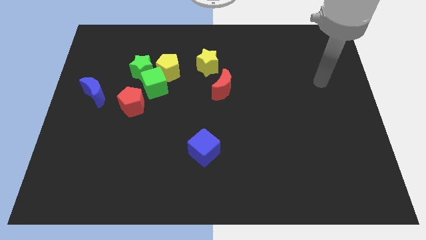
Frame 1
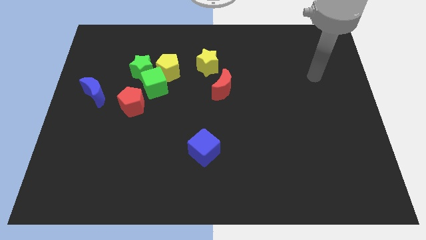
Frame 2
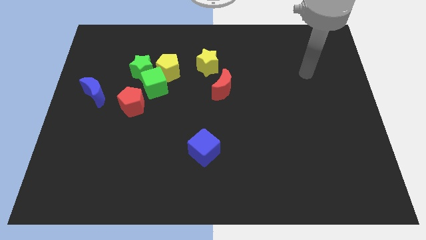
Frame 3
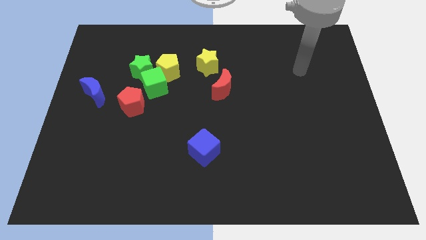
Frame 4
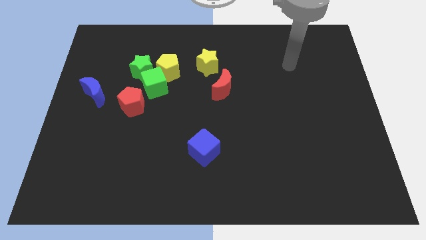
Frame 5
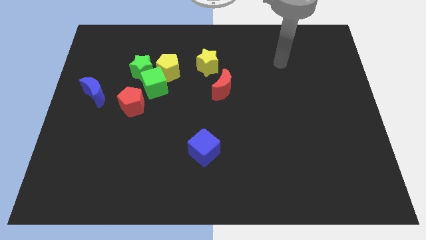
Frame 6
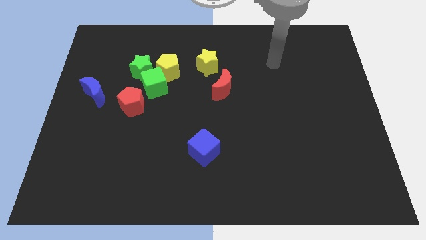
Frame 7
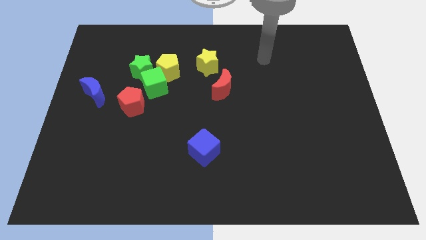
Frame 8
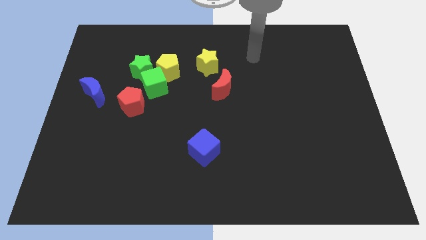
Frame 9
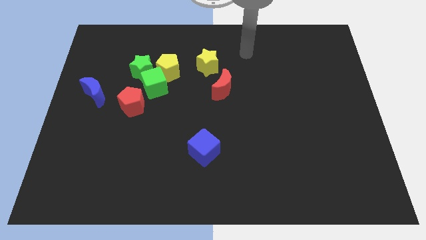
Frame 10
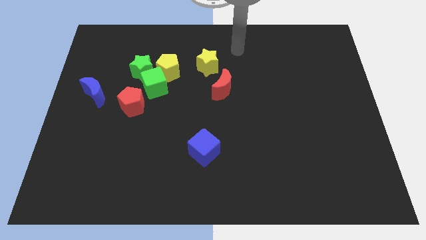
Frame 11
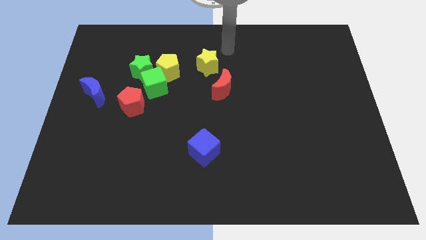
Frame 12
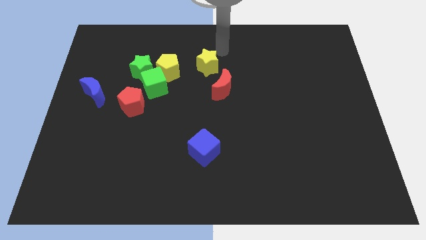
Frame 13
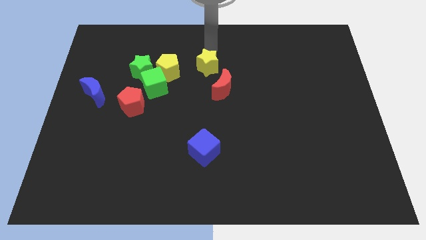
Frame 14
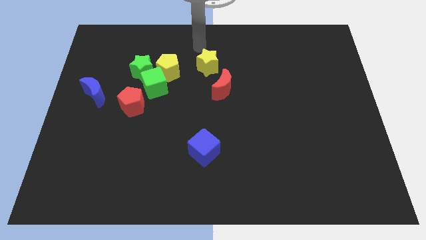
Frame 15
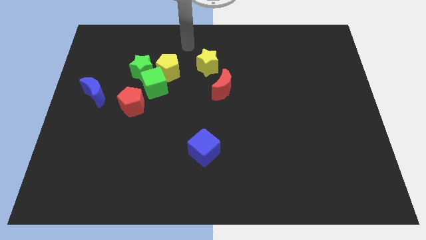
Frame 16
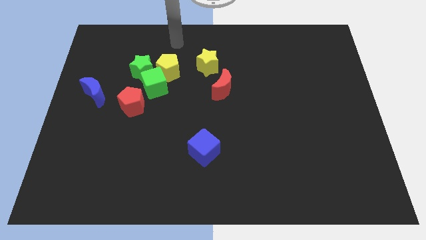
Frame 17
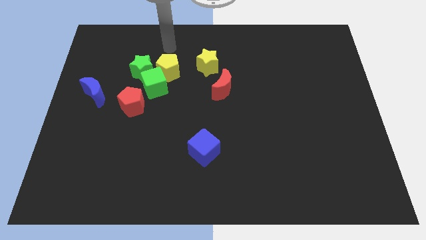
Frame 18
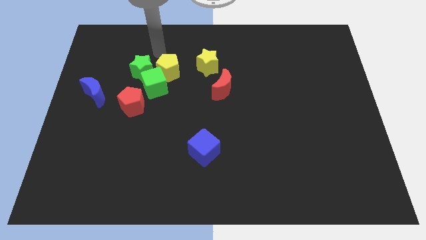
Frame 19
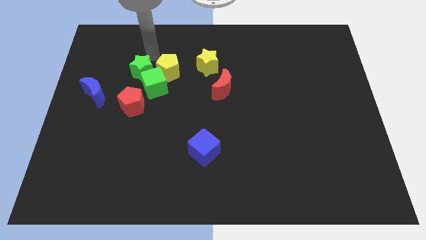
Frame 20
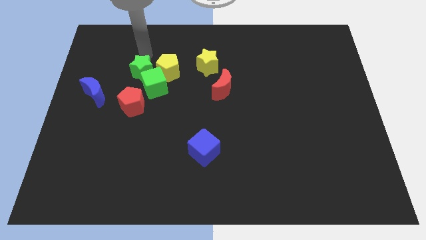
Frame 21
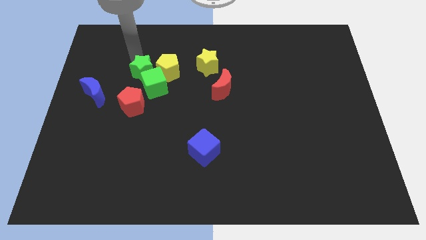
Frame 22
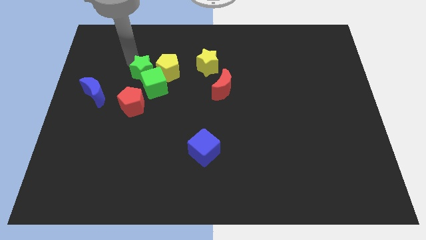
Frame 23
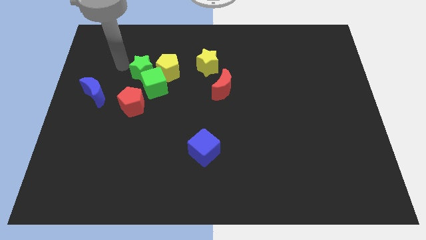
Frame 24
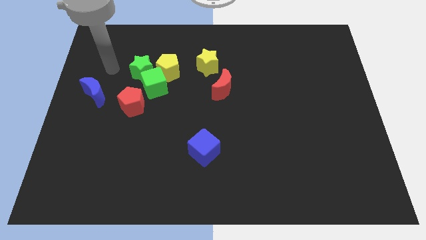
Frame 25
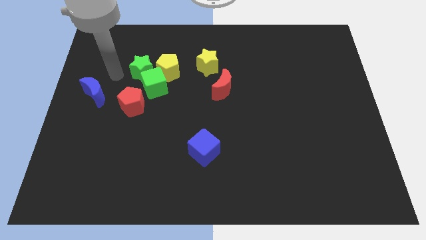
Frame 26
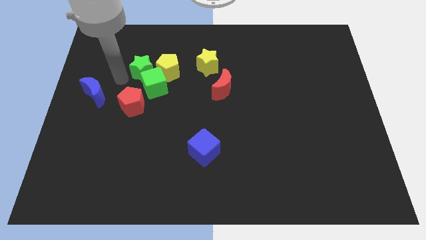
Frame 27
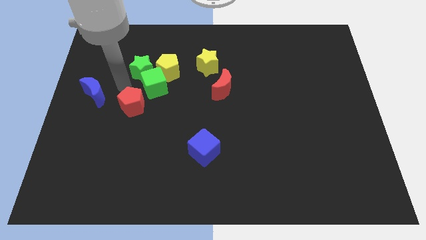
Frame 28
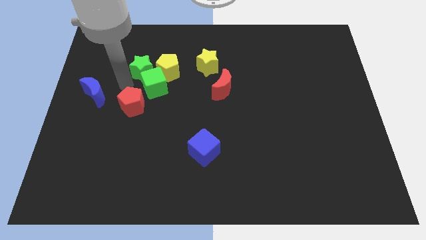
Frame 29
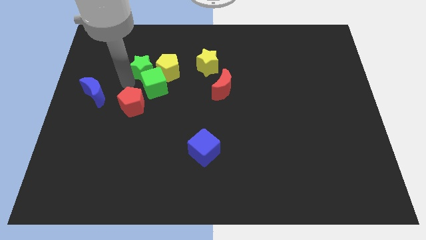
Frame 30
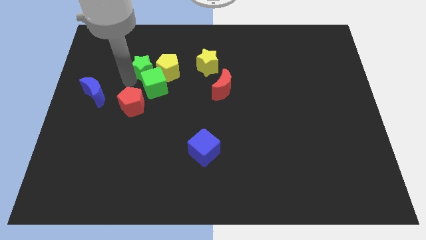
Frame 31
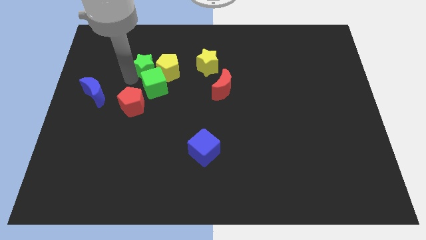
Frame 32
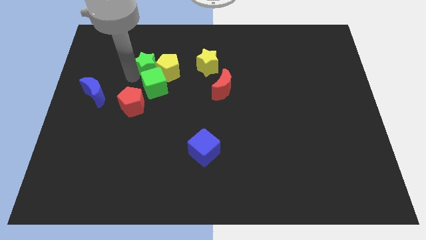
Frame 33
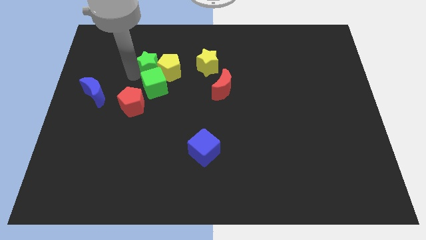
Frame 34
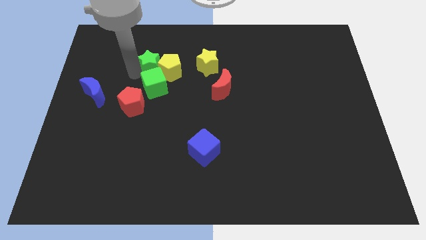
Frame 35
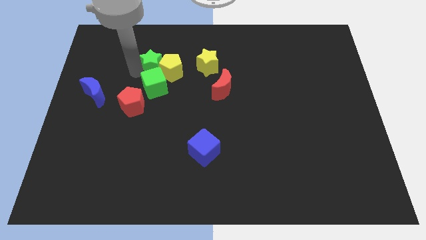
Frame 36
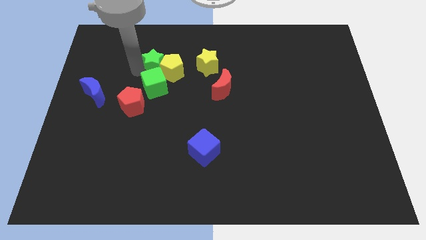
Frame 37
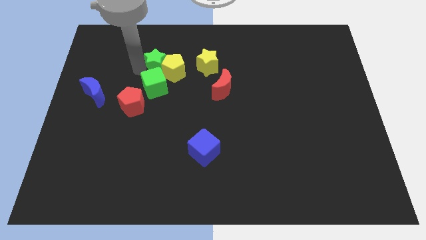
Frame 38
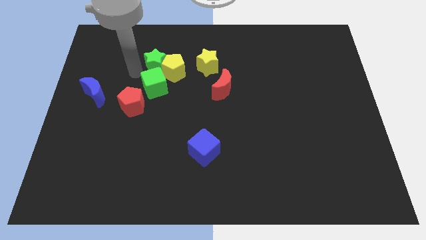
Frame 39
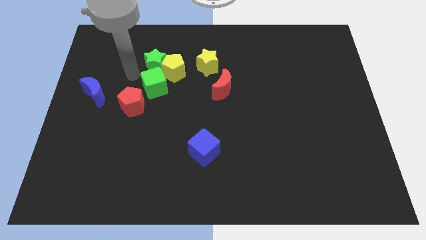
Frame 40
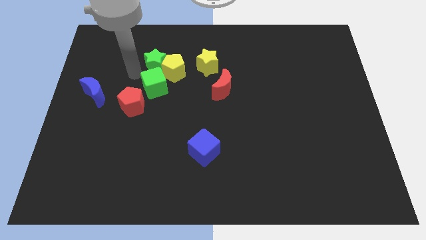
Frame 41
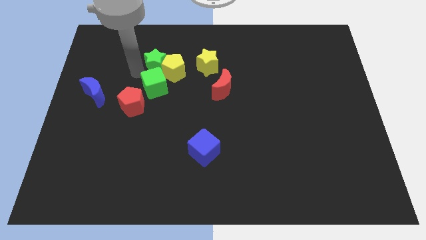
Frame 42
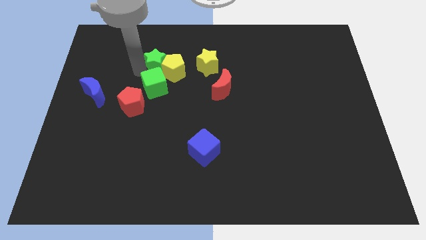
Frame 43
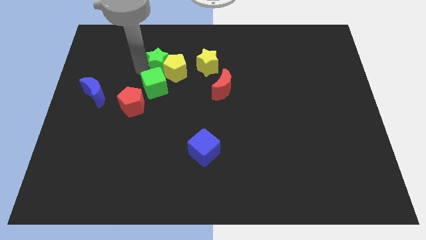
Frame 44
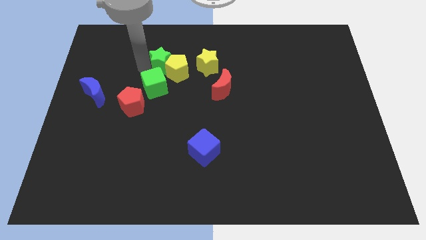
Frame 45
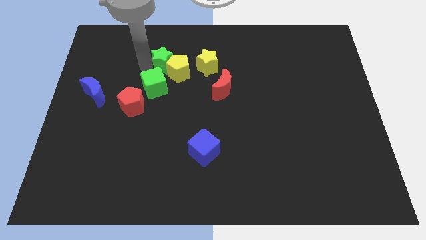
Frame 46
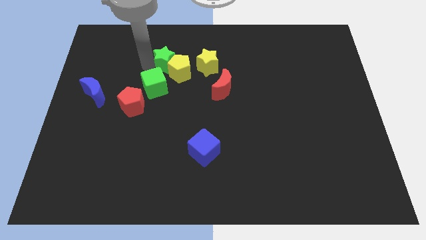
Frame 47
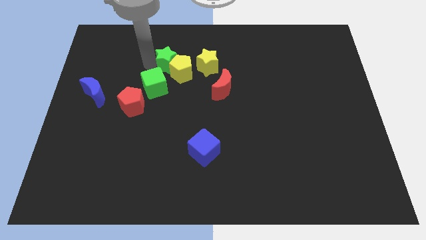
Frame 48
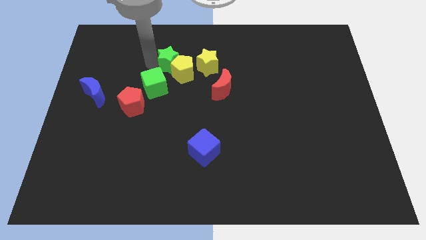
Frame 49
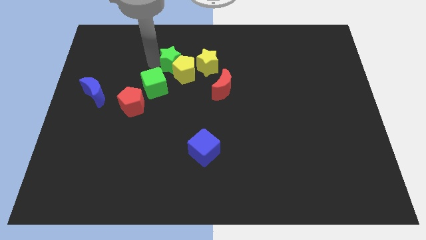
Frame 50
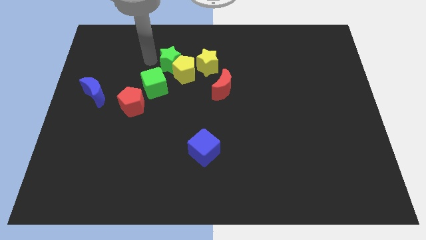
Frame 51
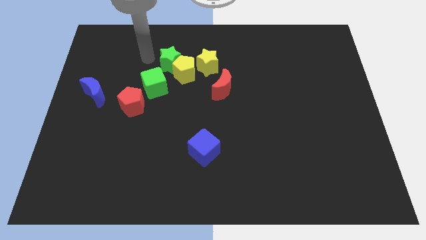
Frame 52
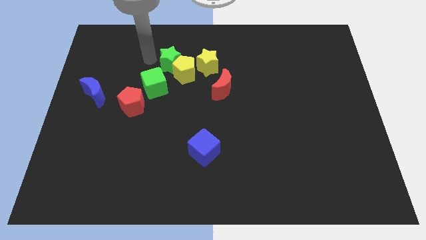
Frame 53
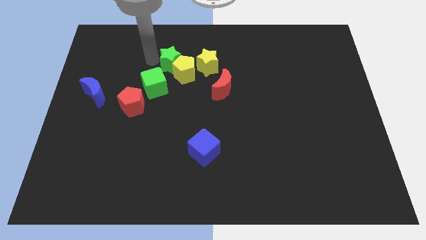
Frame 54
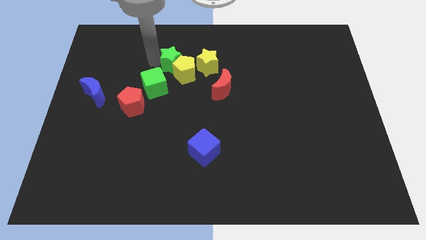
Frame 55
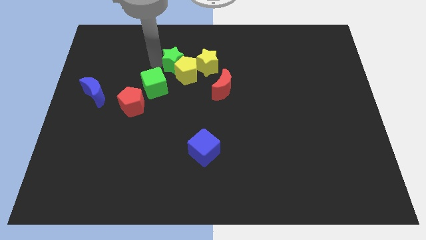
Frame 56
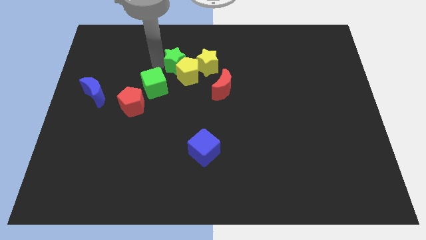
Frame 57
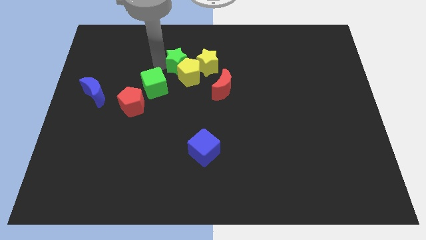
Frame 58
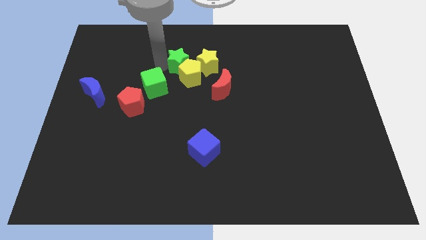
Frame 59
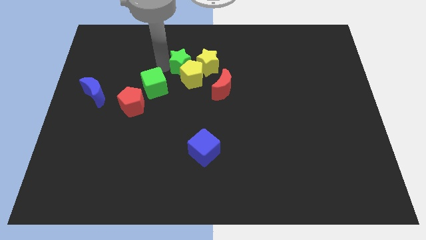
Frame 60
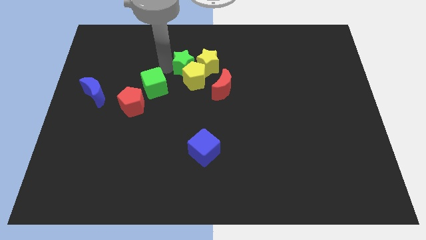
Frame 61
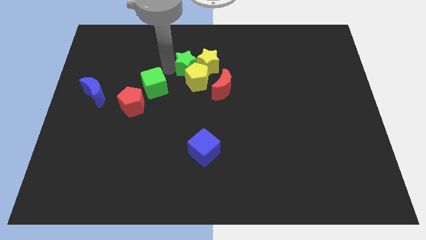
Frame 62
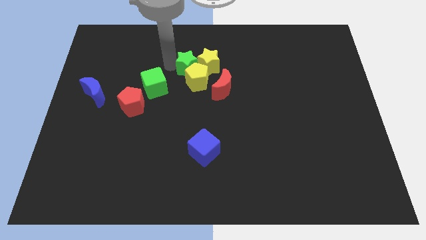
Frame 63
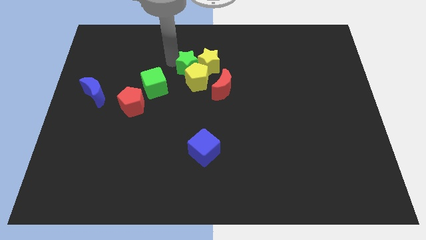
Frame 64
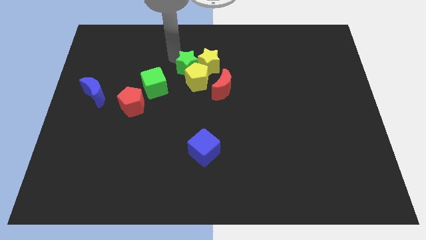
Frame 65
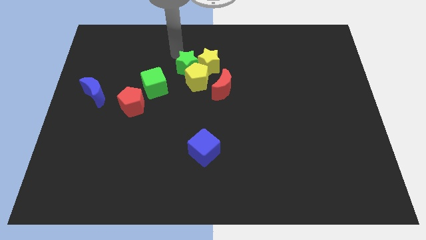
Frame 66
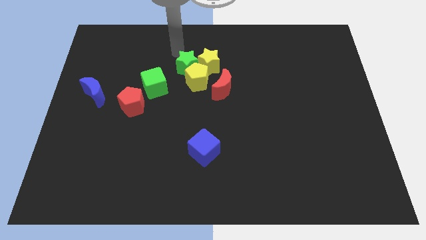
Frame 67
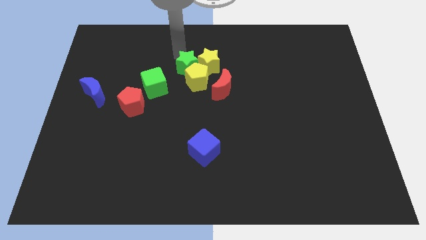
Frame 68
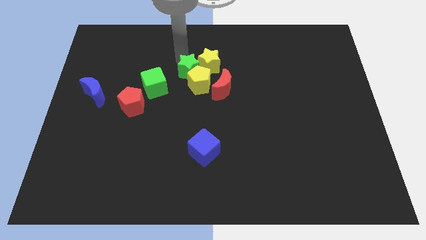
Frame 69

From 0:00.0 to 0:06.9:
move the green star to the right side of the green cube

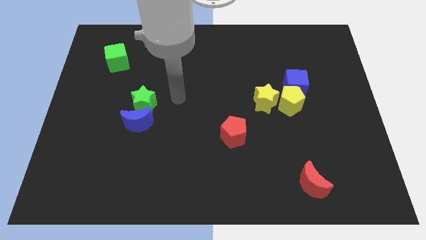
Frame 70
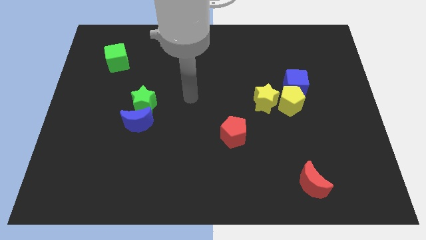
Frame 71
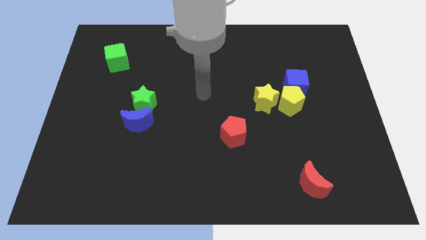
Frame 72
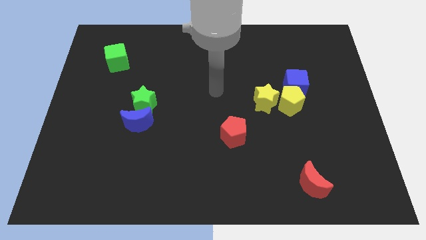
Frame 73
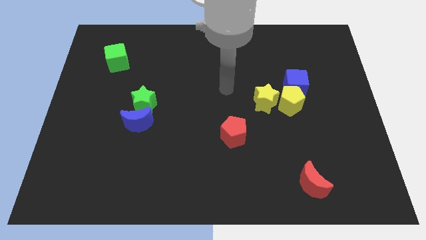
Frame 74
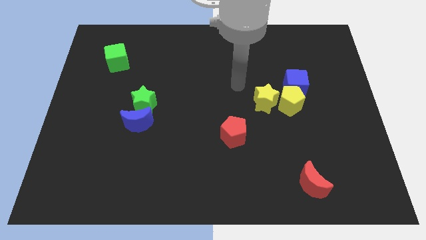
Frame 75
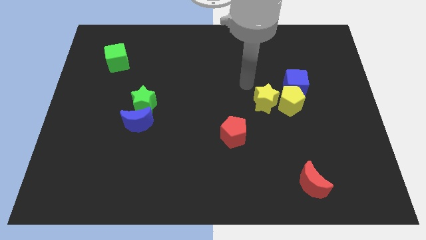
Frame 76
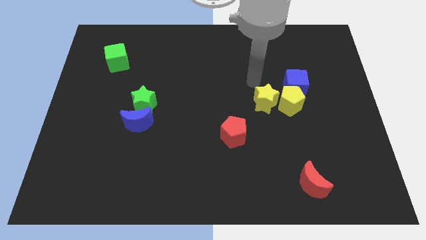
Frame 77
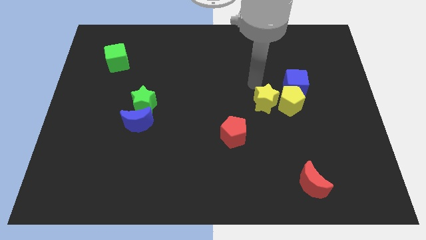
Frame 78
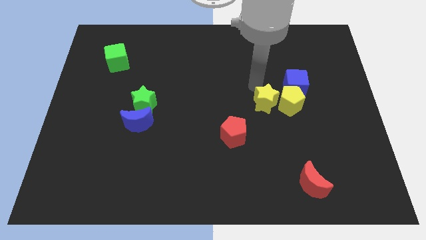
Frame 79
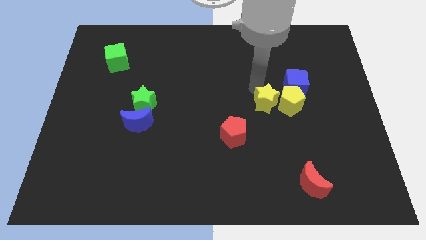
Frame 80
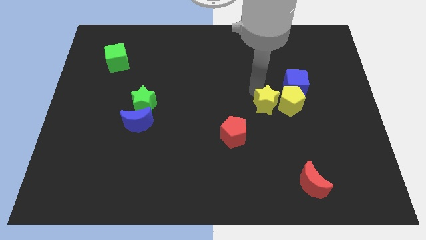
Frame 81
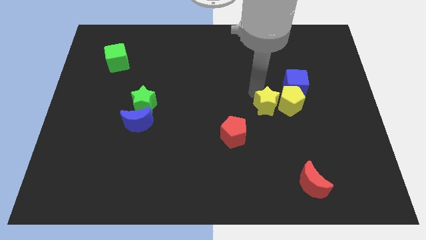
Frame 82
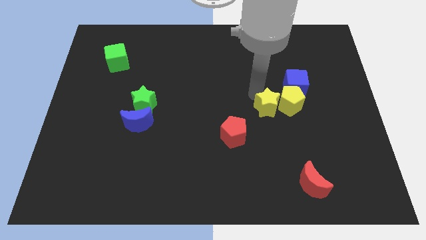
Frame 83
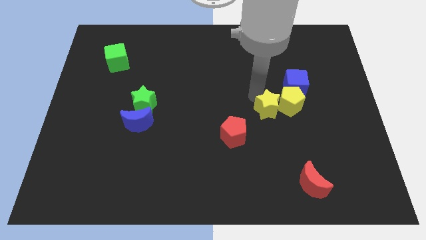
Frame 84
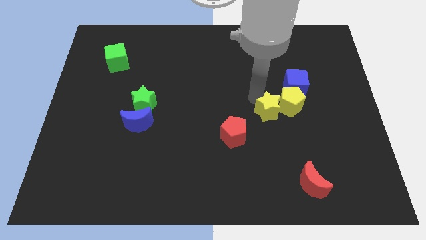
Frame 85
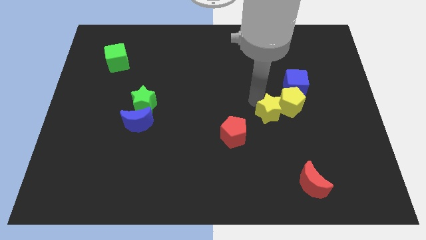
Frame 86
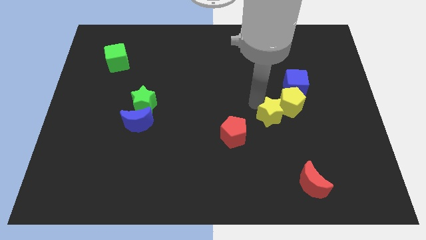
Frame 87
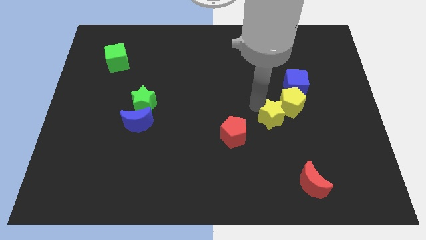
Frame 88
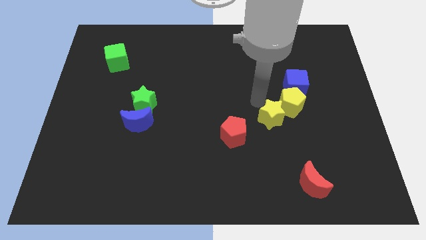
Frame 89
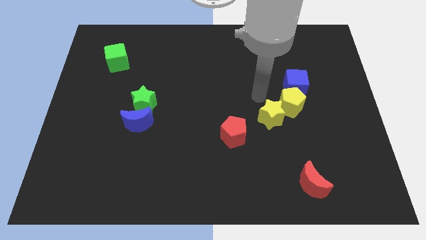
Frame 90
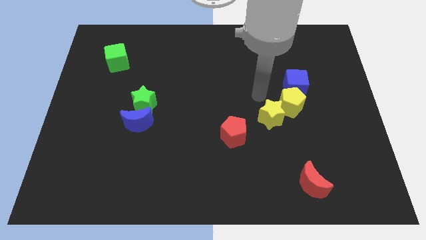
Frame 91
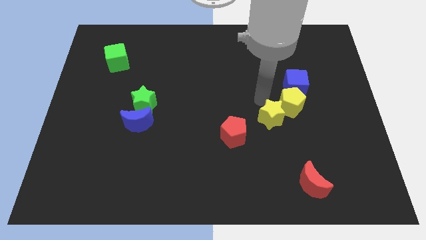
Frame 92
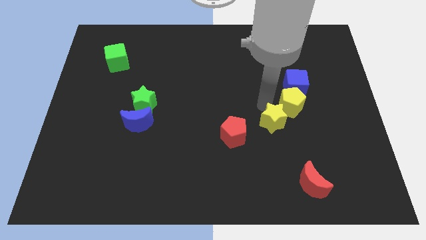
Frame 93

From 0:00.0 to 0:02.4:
move the yellow star just right of the red pentagon
